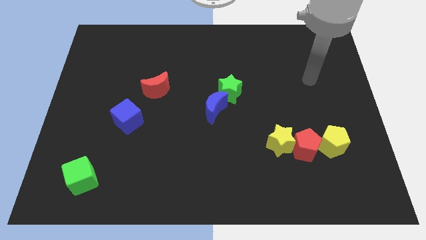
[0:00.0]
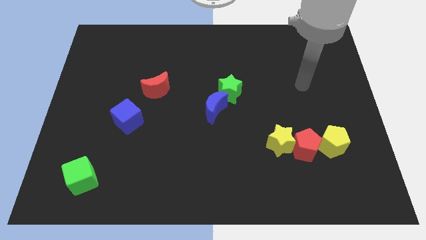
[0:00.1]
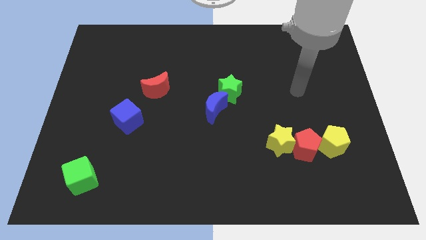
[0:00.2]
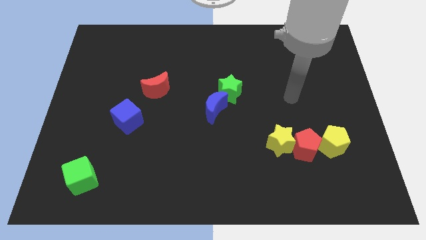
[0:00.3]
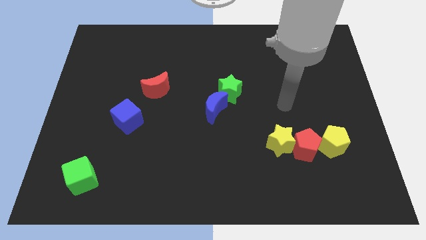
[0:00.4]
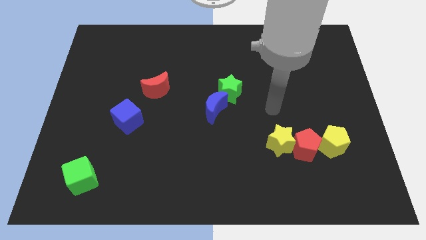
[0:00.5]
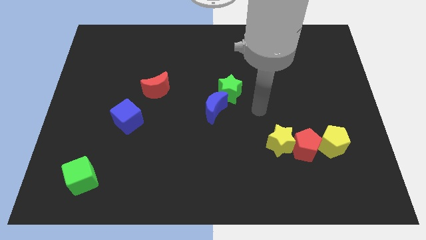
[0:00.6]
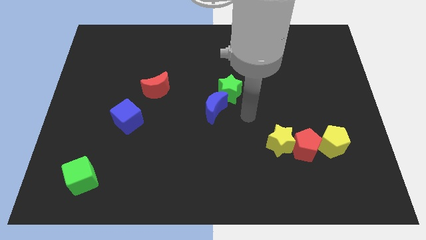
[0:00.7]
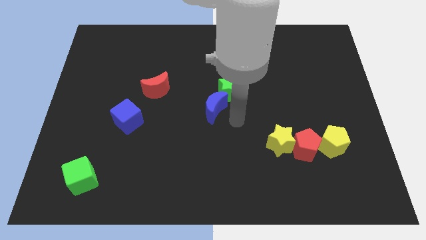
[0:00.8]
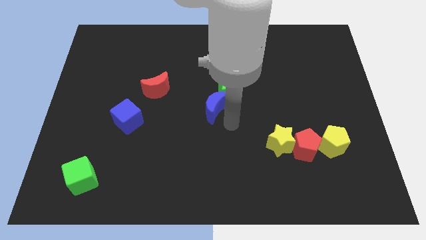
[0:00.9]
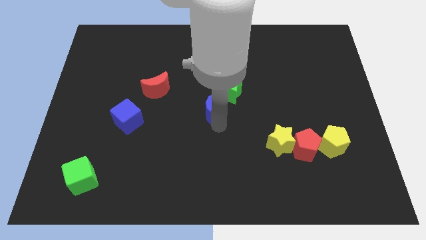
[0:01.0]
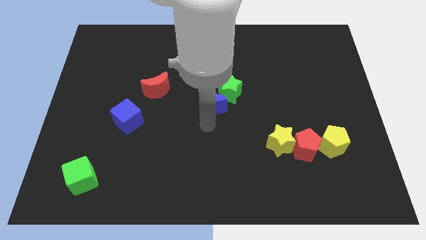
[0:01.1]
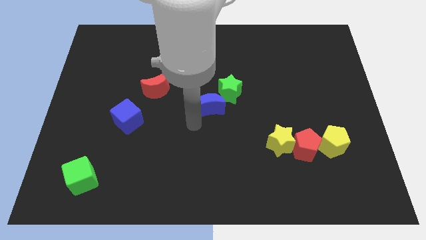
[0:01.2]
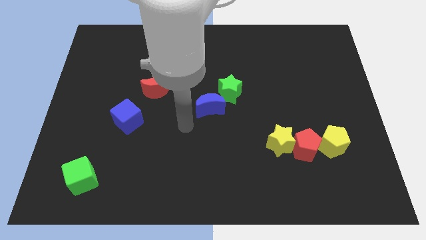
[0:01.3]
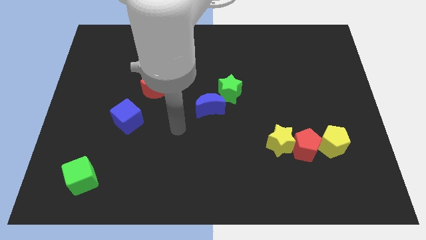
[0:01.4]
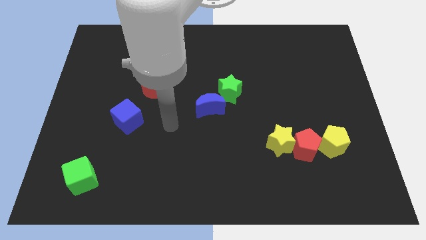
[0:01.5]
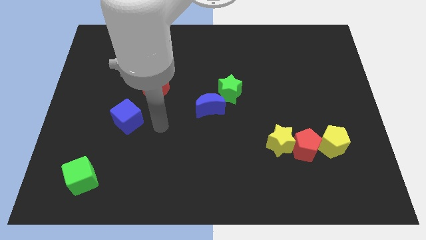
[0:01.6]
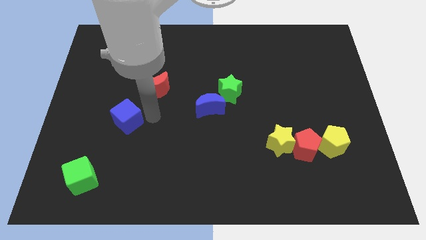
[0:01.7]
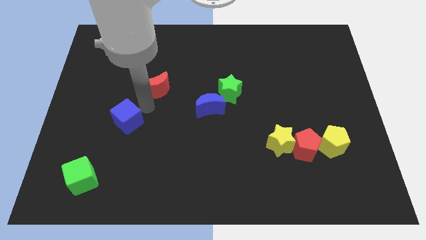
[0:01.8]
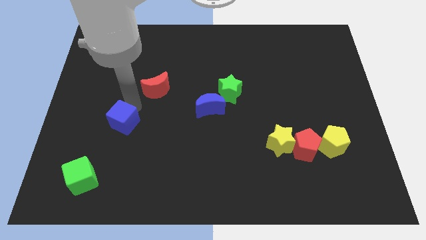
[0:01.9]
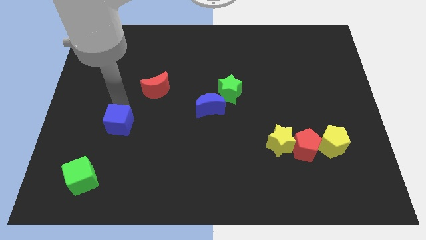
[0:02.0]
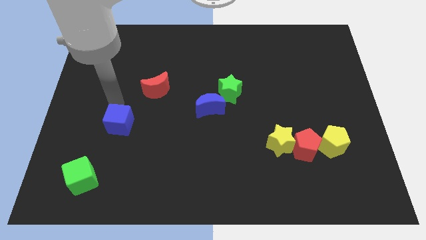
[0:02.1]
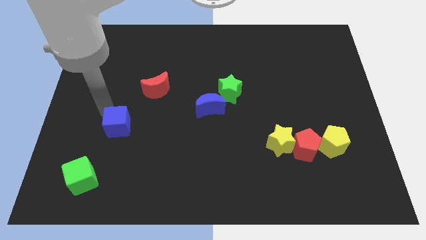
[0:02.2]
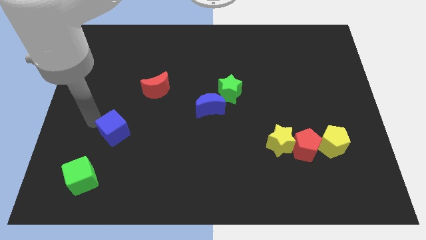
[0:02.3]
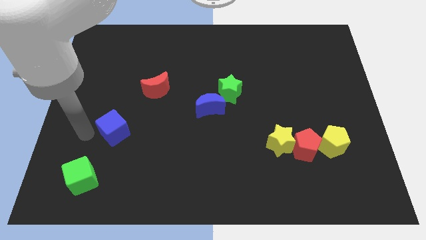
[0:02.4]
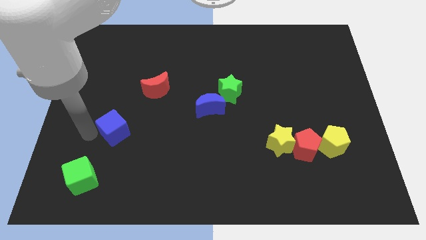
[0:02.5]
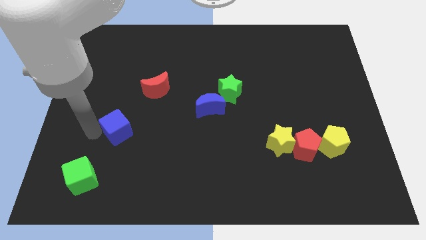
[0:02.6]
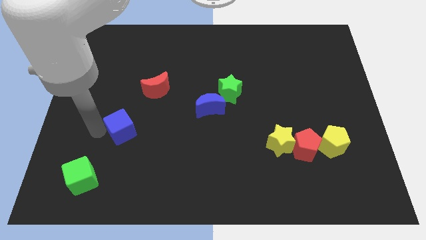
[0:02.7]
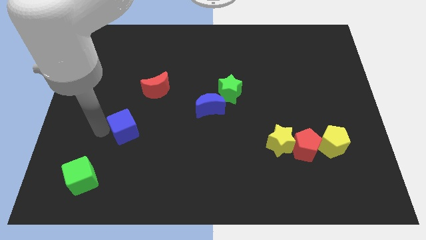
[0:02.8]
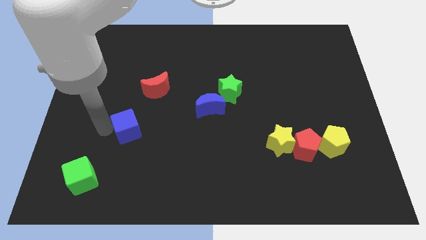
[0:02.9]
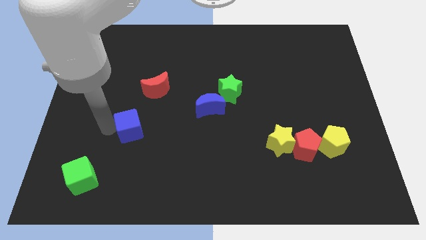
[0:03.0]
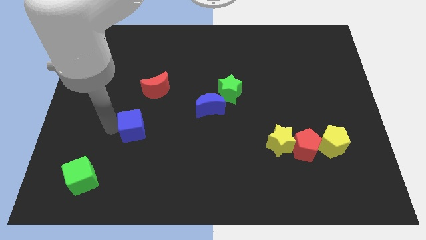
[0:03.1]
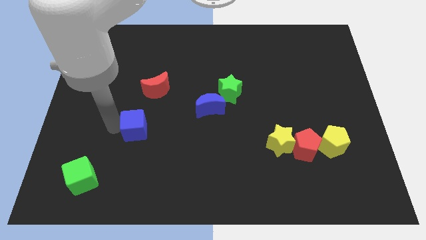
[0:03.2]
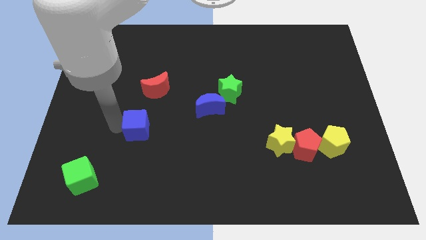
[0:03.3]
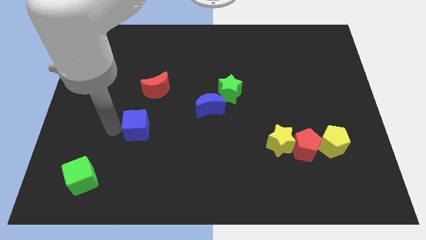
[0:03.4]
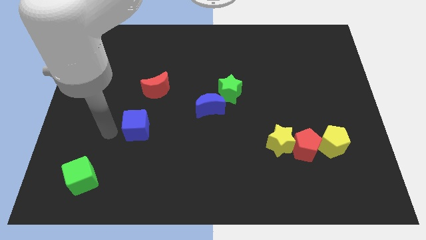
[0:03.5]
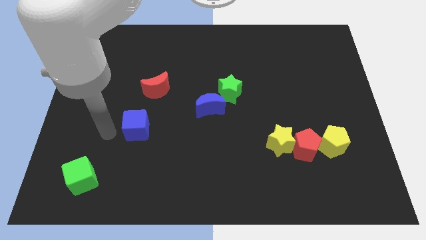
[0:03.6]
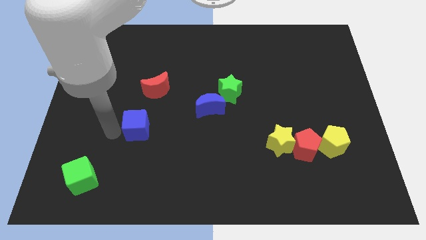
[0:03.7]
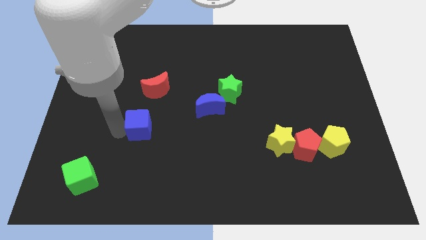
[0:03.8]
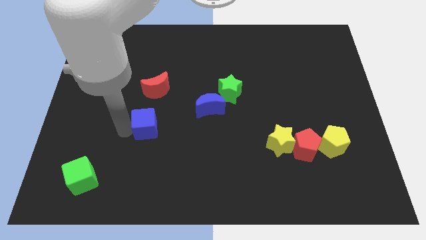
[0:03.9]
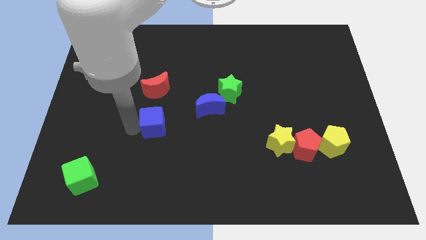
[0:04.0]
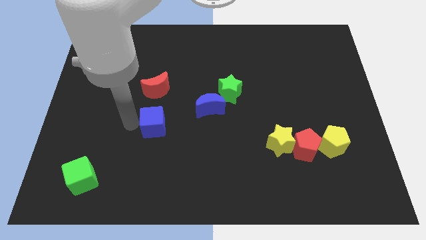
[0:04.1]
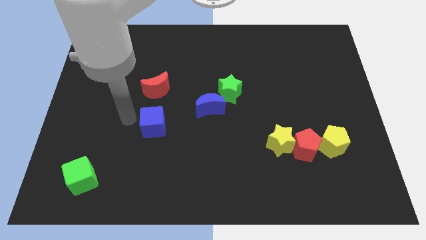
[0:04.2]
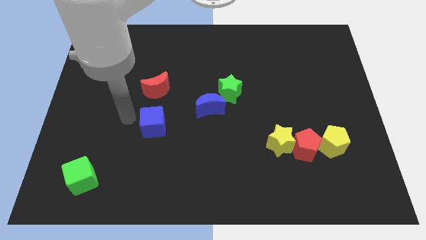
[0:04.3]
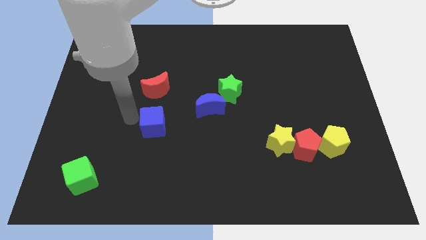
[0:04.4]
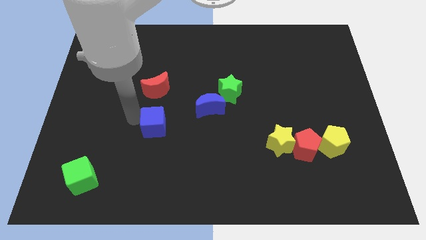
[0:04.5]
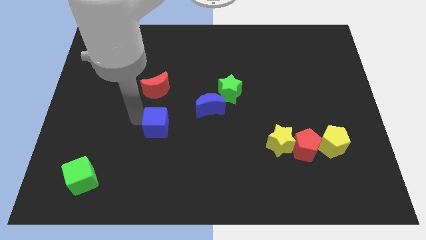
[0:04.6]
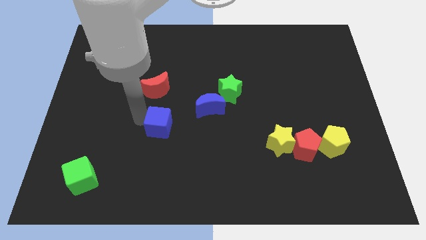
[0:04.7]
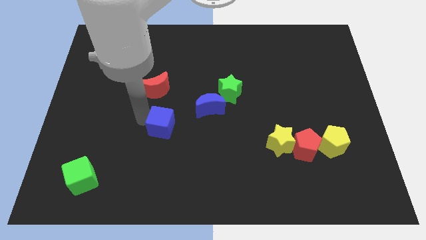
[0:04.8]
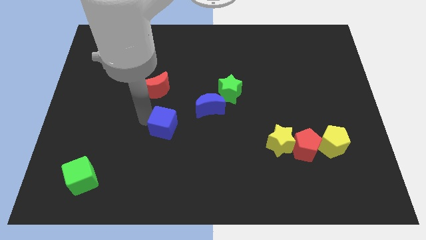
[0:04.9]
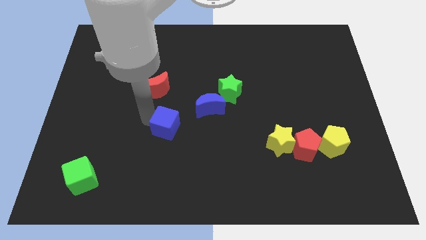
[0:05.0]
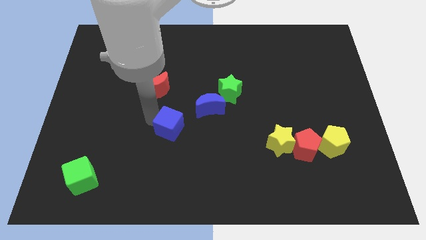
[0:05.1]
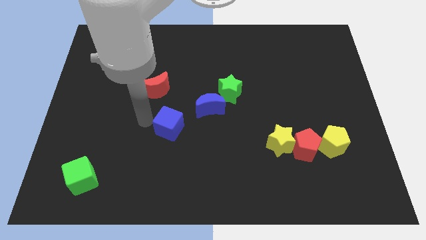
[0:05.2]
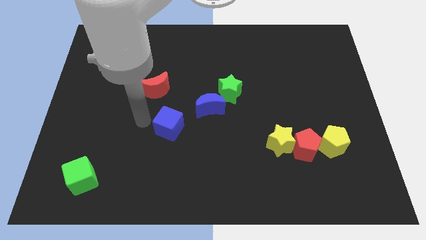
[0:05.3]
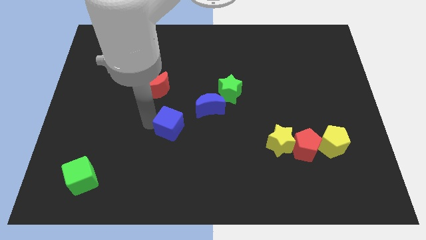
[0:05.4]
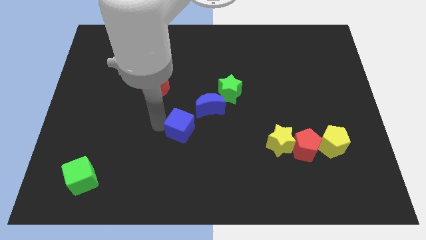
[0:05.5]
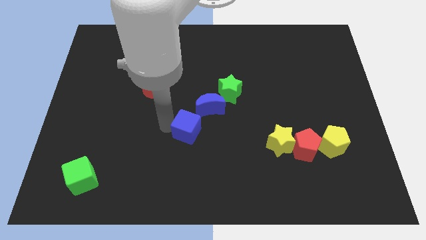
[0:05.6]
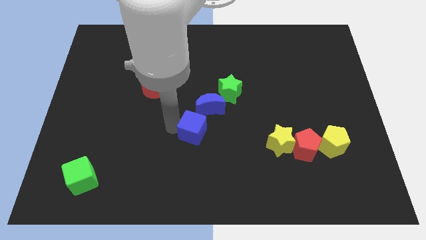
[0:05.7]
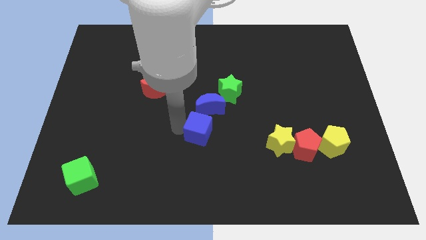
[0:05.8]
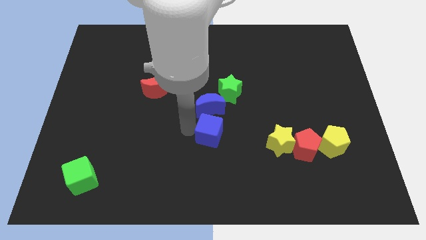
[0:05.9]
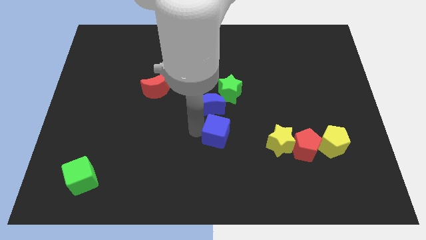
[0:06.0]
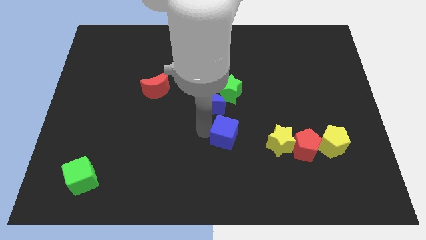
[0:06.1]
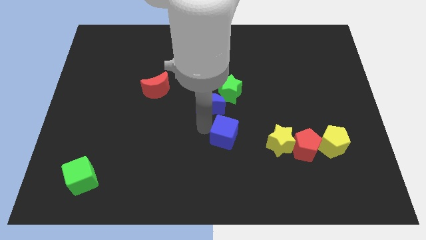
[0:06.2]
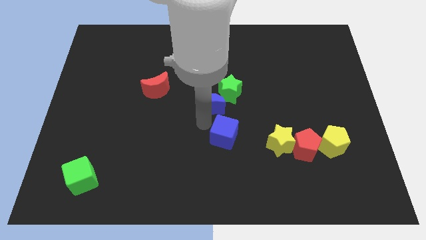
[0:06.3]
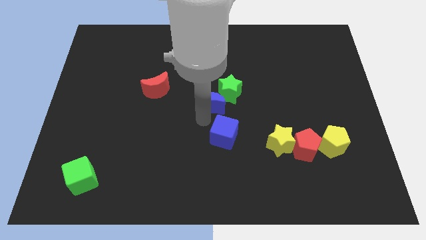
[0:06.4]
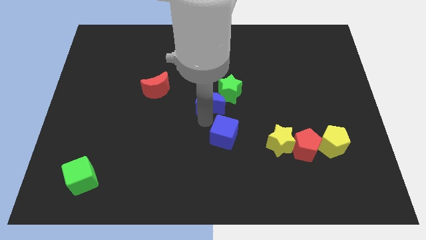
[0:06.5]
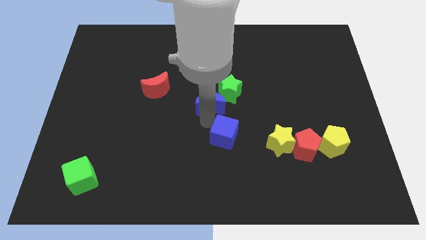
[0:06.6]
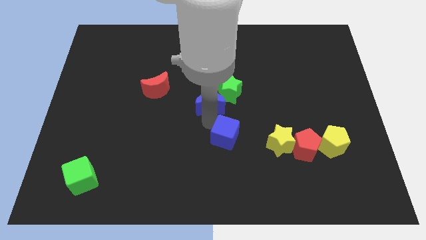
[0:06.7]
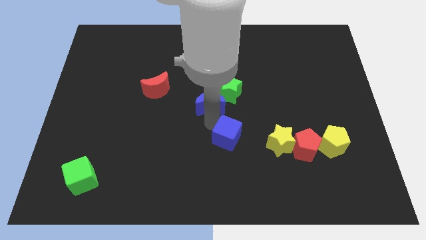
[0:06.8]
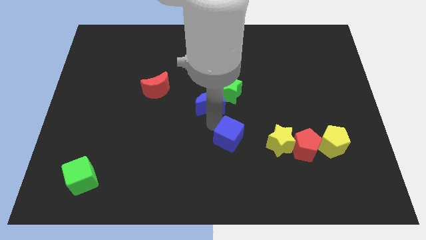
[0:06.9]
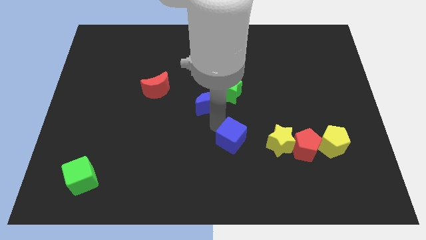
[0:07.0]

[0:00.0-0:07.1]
put the blue cube left of the red pentagon
